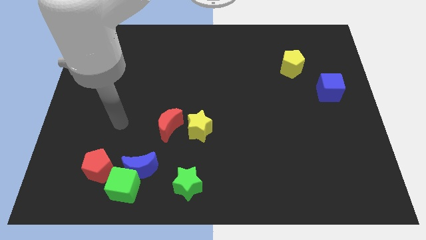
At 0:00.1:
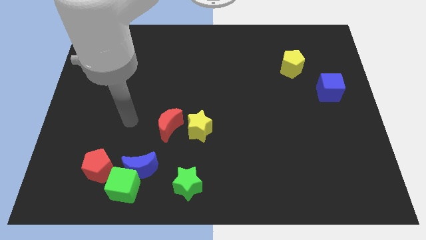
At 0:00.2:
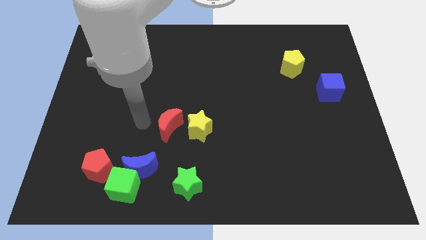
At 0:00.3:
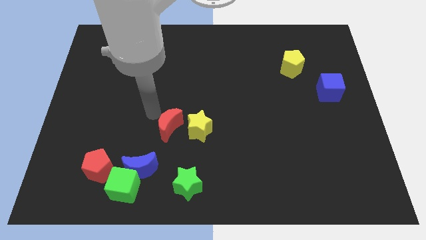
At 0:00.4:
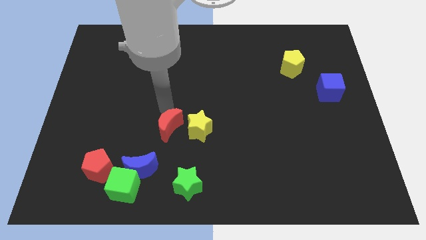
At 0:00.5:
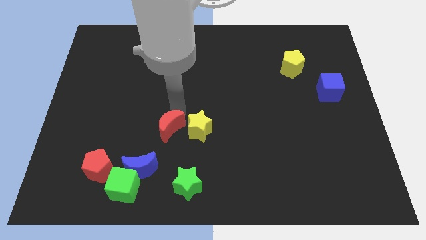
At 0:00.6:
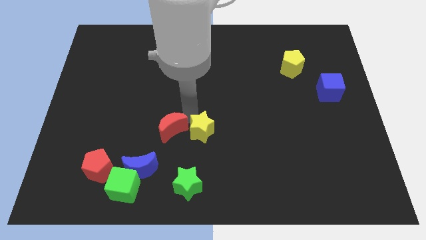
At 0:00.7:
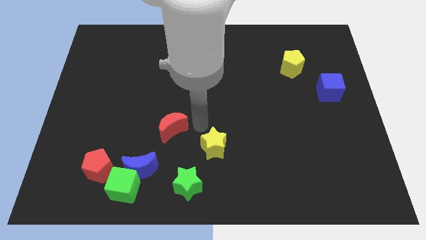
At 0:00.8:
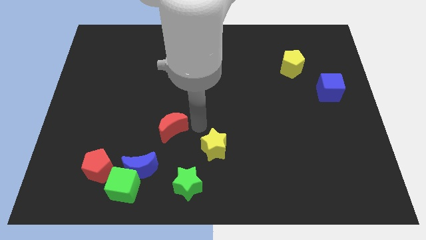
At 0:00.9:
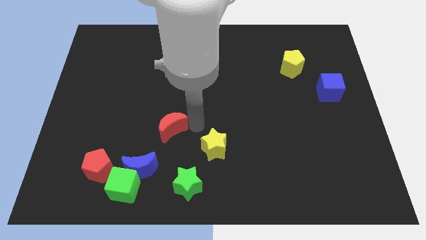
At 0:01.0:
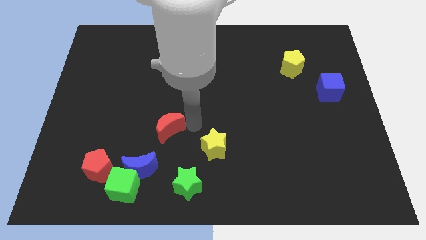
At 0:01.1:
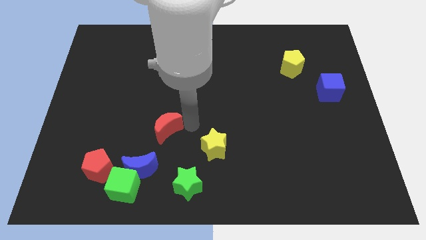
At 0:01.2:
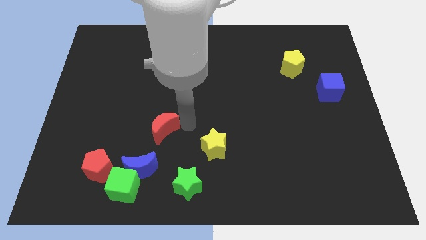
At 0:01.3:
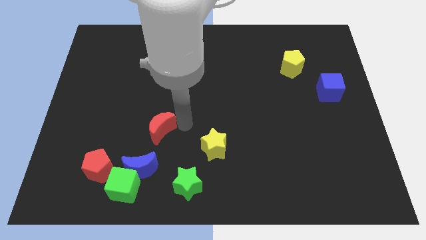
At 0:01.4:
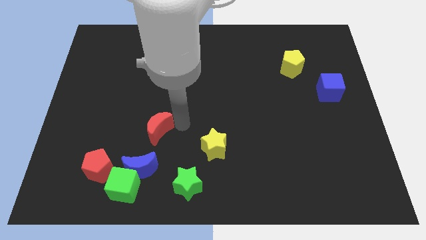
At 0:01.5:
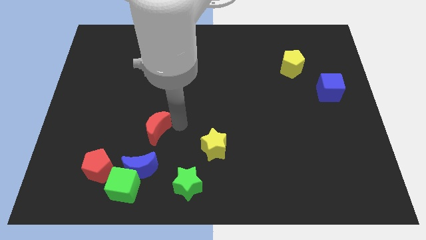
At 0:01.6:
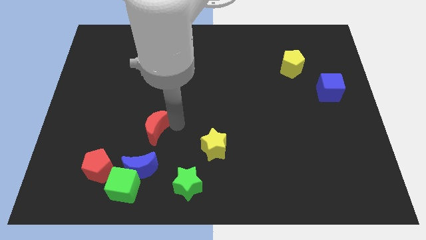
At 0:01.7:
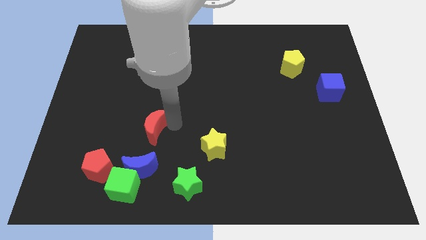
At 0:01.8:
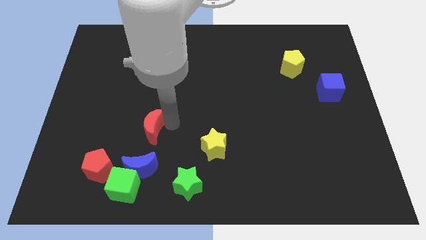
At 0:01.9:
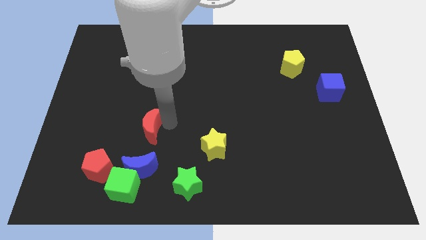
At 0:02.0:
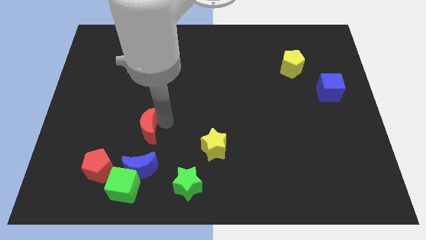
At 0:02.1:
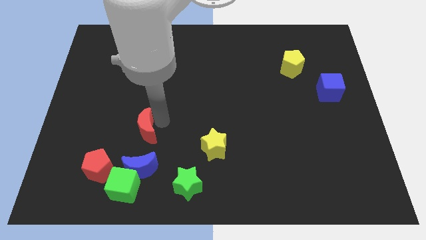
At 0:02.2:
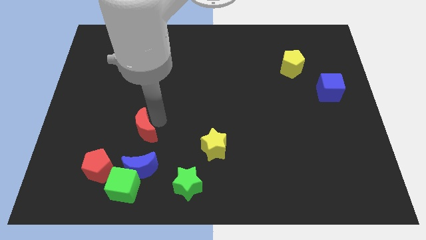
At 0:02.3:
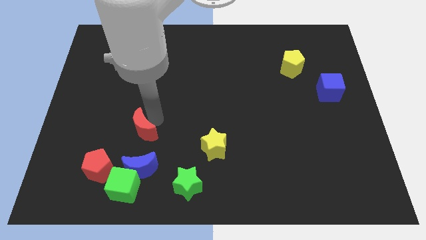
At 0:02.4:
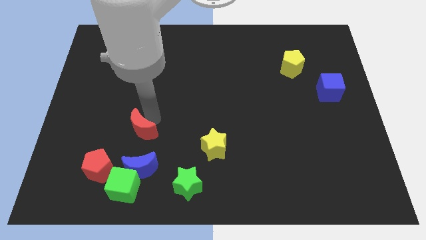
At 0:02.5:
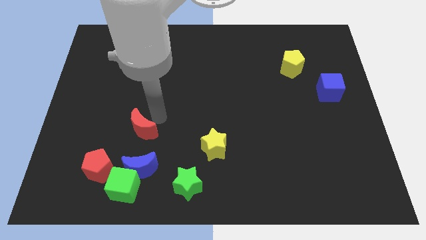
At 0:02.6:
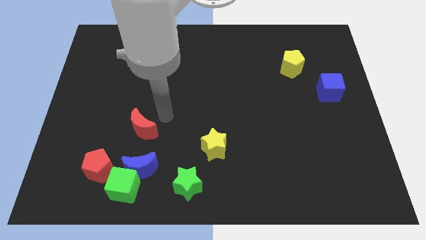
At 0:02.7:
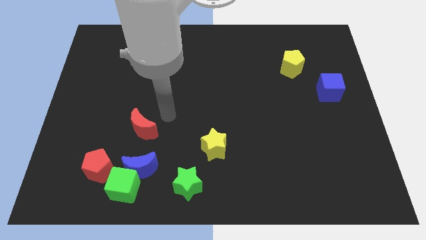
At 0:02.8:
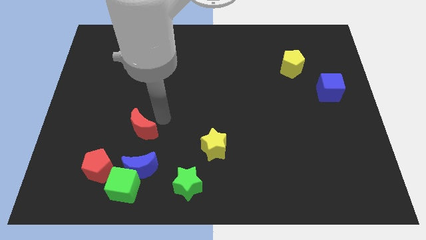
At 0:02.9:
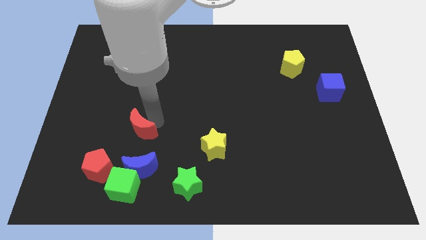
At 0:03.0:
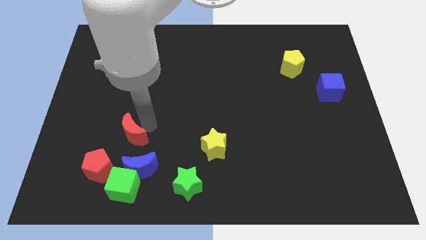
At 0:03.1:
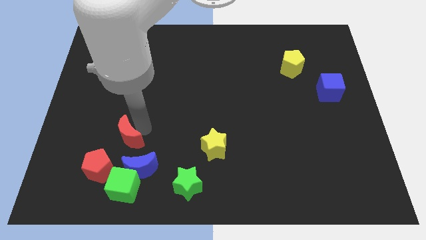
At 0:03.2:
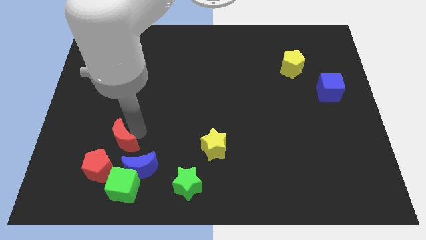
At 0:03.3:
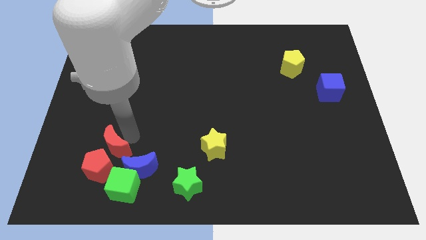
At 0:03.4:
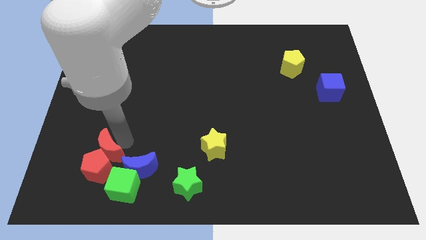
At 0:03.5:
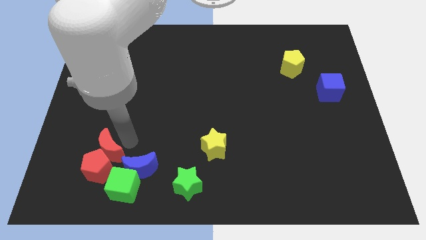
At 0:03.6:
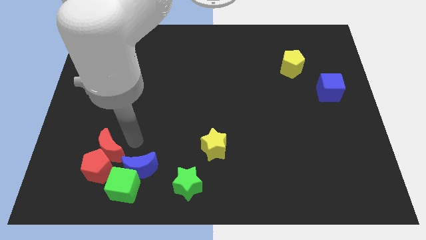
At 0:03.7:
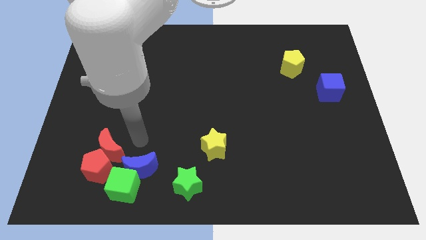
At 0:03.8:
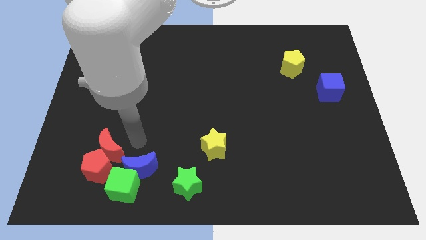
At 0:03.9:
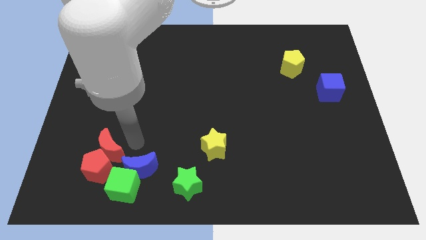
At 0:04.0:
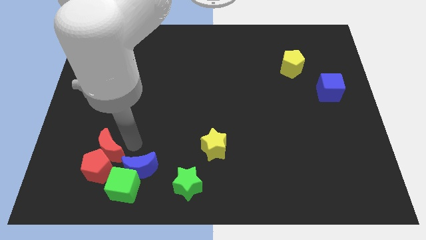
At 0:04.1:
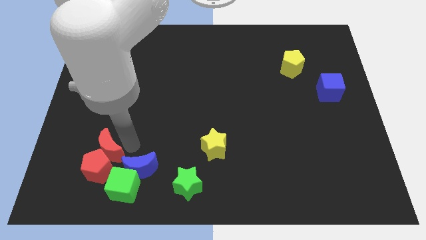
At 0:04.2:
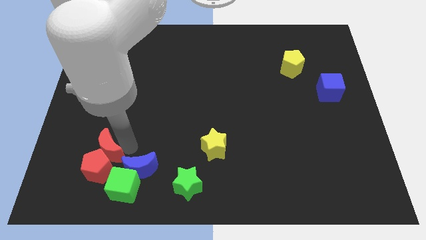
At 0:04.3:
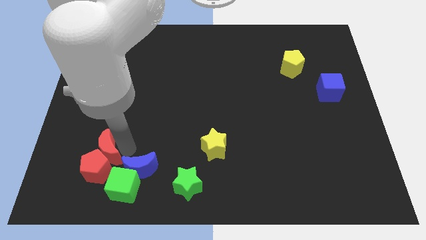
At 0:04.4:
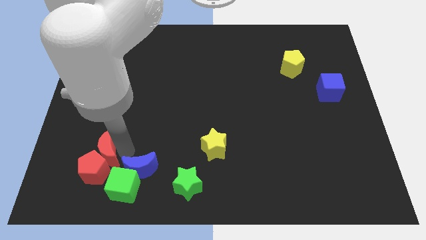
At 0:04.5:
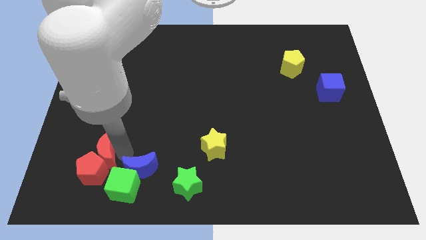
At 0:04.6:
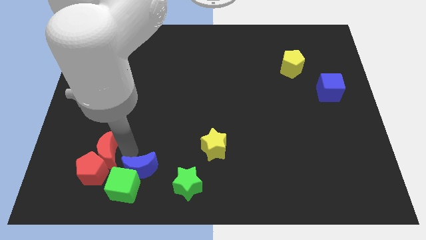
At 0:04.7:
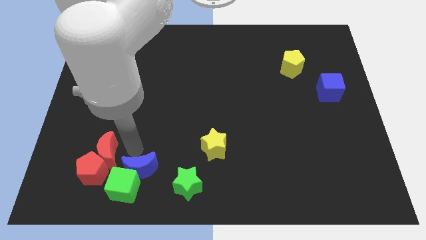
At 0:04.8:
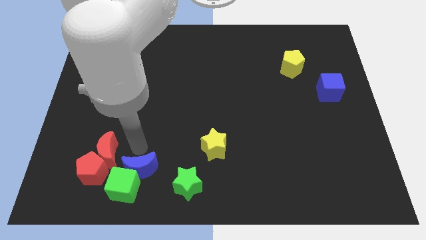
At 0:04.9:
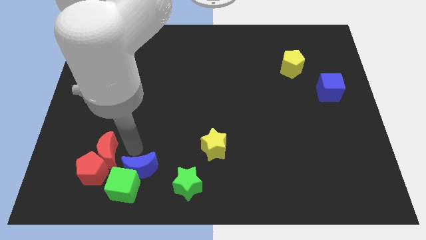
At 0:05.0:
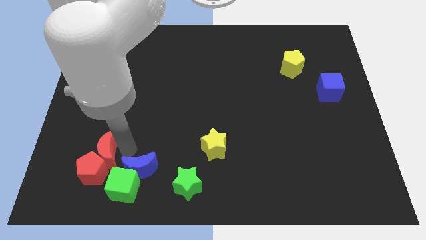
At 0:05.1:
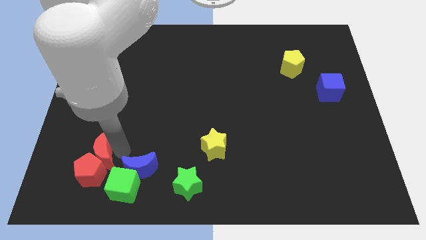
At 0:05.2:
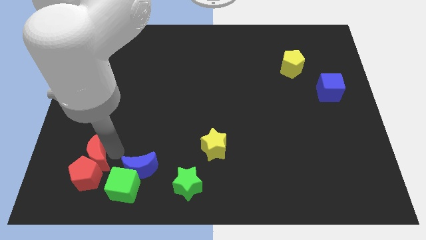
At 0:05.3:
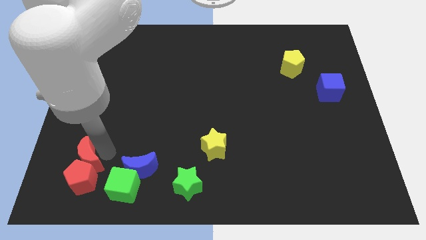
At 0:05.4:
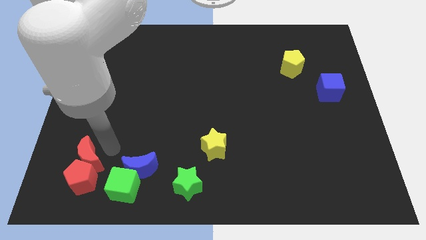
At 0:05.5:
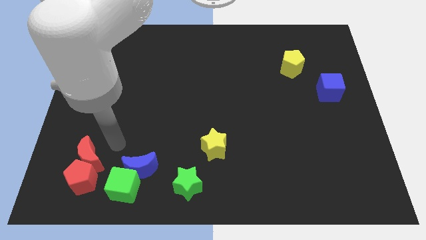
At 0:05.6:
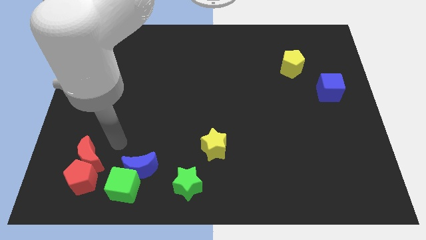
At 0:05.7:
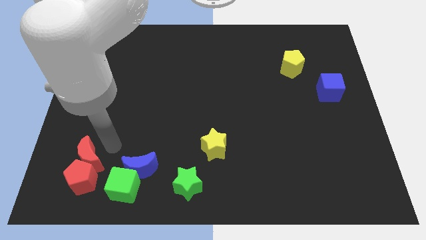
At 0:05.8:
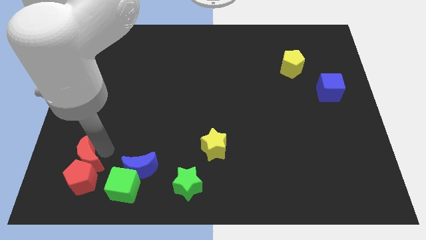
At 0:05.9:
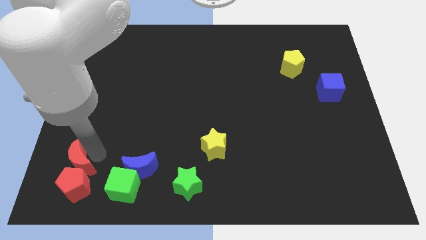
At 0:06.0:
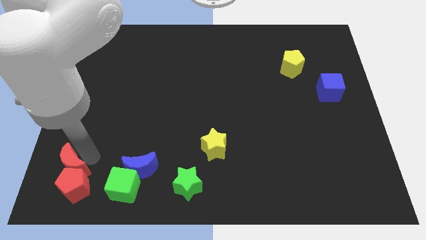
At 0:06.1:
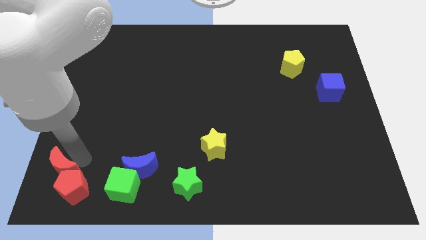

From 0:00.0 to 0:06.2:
move the red moon to the bottom left corner

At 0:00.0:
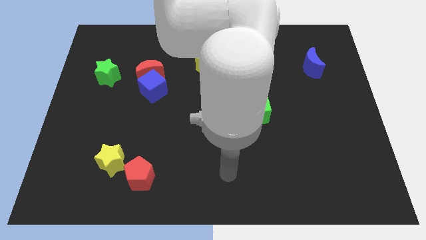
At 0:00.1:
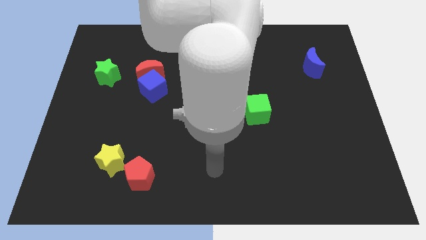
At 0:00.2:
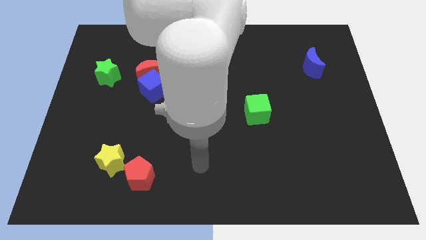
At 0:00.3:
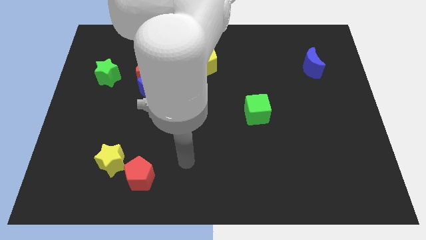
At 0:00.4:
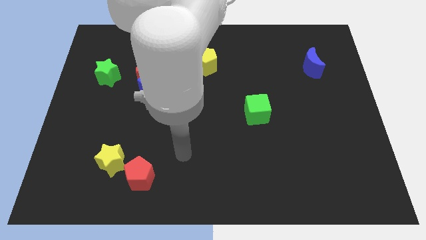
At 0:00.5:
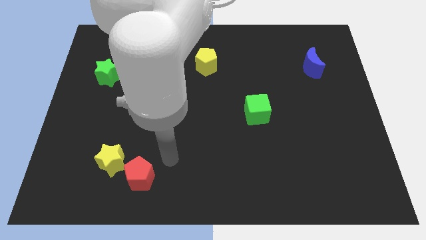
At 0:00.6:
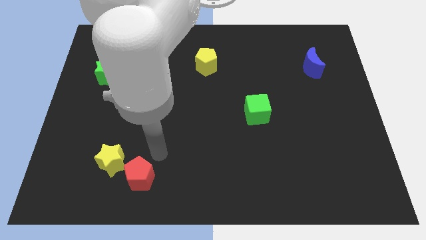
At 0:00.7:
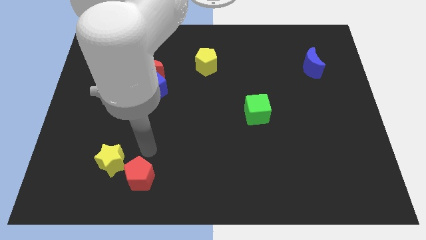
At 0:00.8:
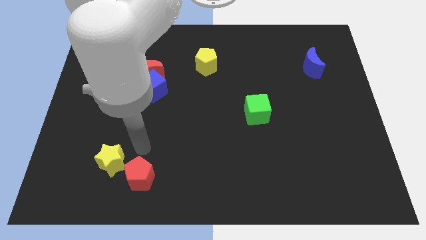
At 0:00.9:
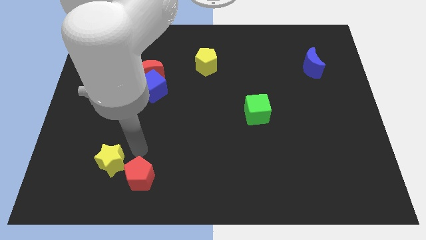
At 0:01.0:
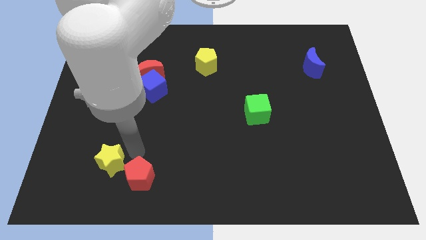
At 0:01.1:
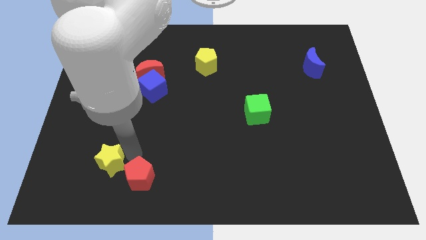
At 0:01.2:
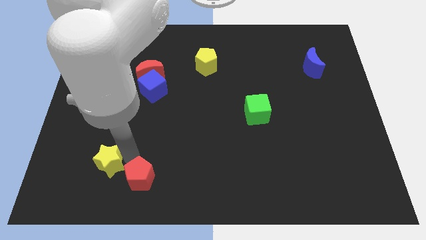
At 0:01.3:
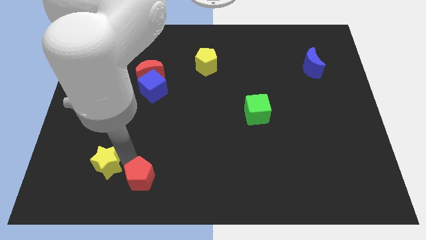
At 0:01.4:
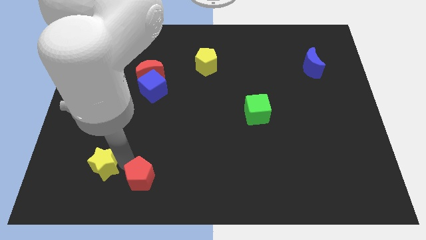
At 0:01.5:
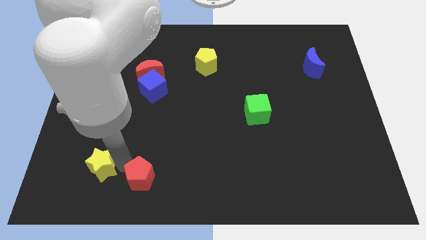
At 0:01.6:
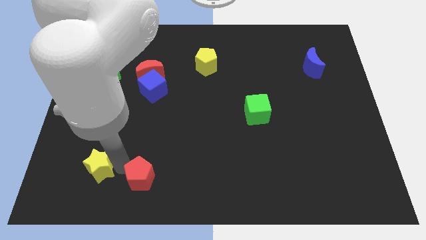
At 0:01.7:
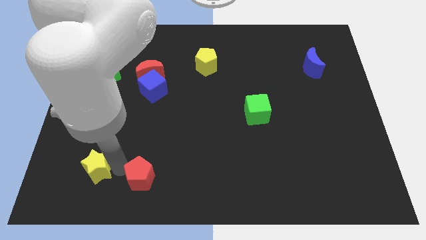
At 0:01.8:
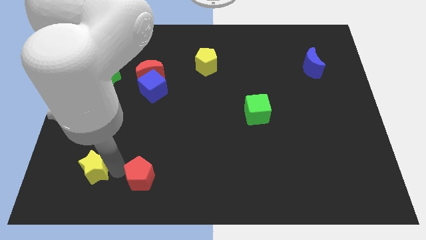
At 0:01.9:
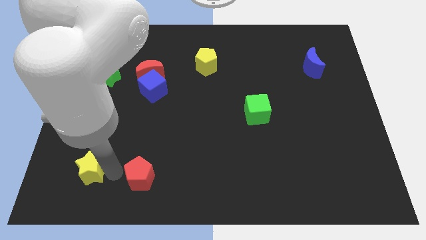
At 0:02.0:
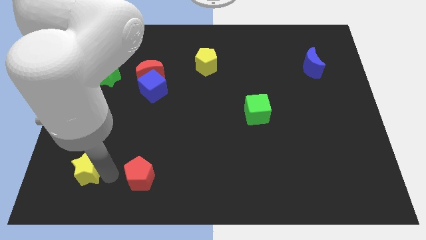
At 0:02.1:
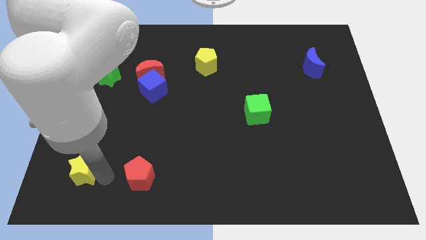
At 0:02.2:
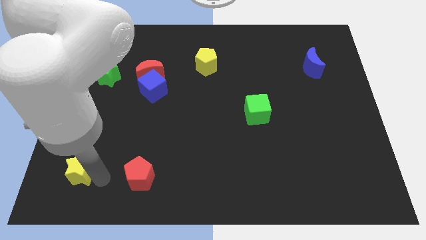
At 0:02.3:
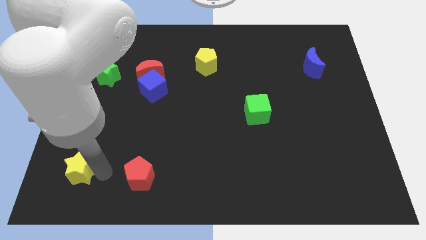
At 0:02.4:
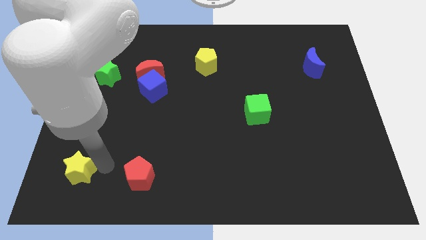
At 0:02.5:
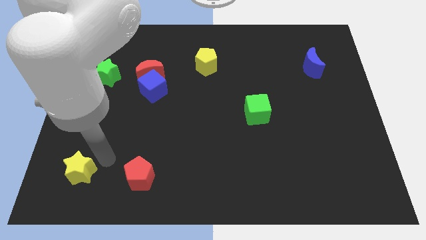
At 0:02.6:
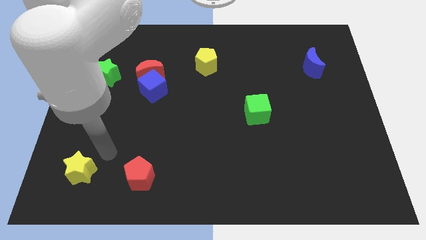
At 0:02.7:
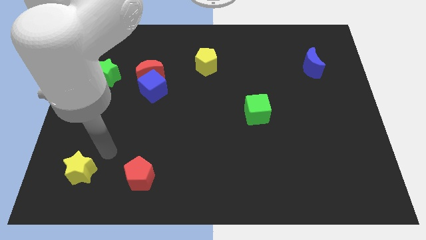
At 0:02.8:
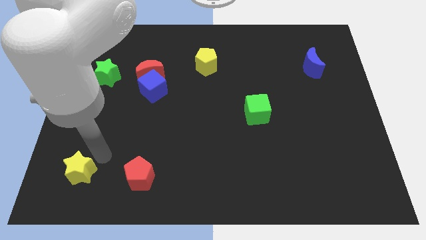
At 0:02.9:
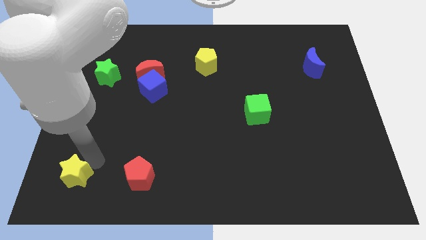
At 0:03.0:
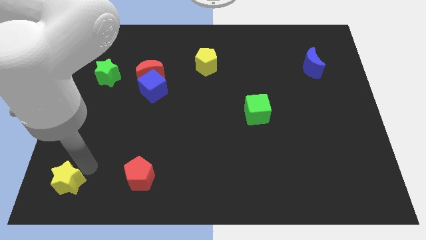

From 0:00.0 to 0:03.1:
slide the yellow star to the lower left corner
